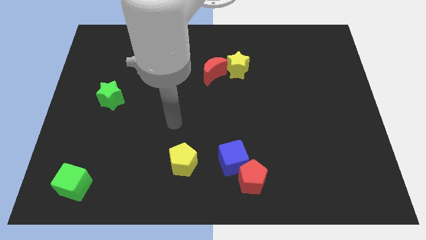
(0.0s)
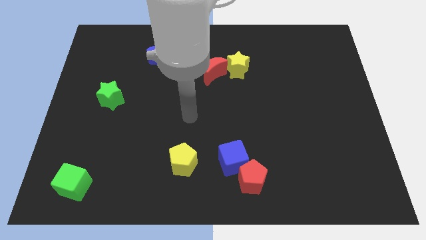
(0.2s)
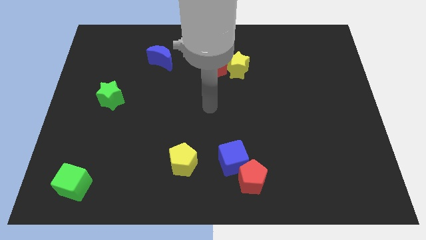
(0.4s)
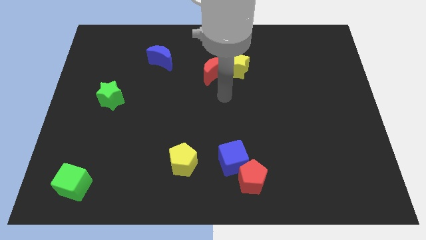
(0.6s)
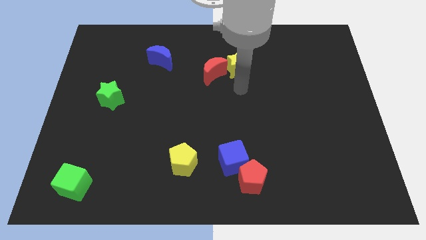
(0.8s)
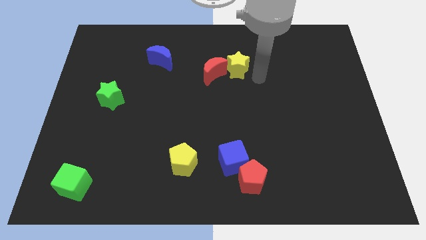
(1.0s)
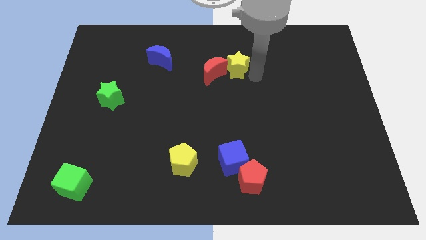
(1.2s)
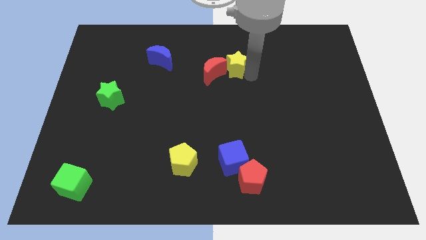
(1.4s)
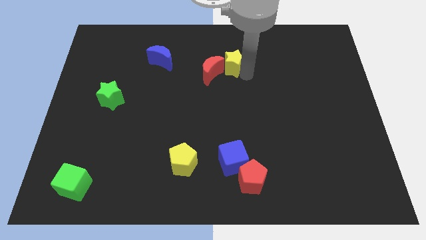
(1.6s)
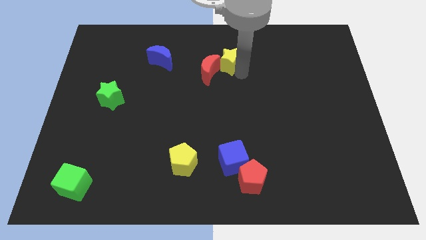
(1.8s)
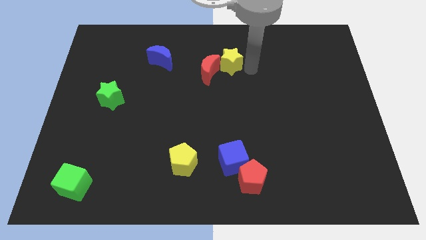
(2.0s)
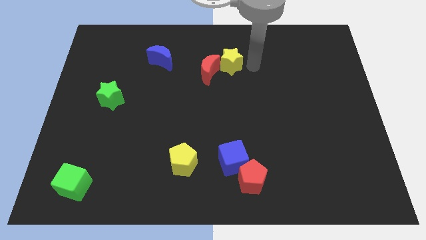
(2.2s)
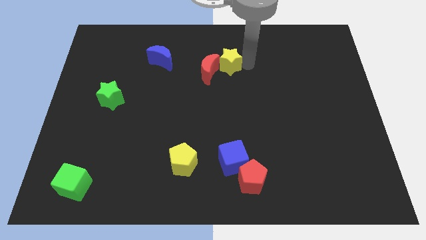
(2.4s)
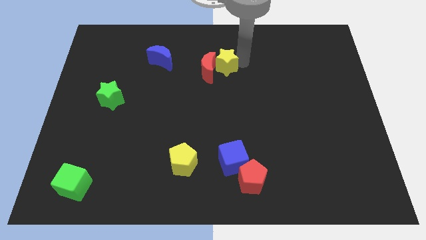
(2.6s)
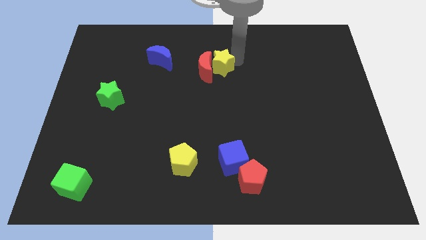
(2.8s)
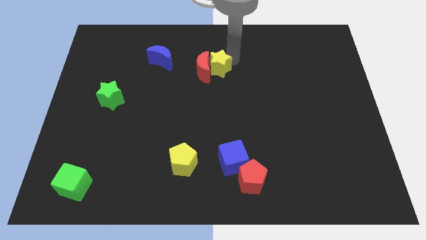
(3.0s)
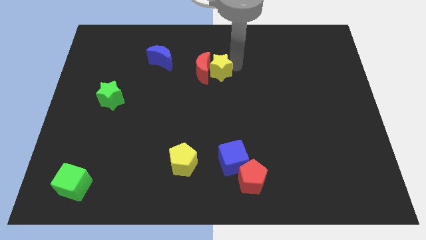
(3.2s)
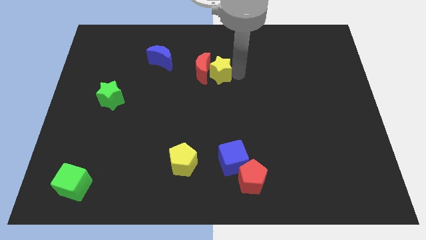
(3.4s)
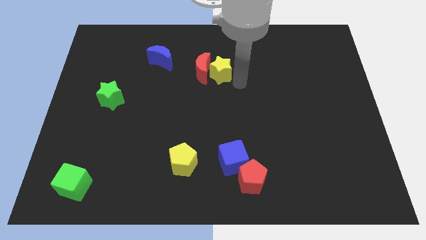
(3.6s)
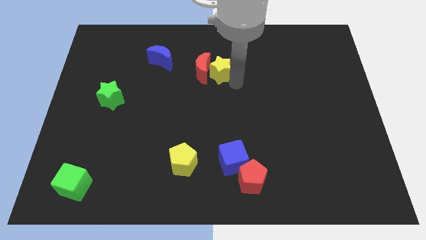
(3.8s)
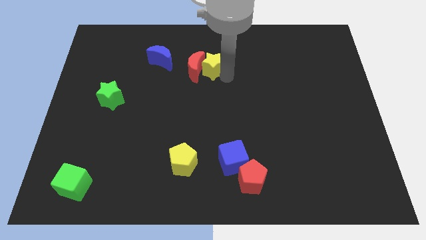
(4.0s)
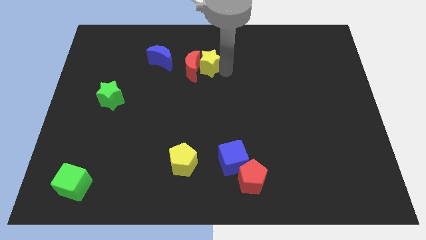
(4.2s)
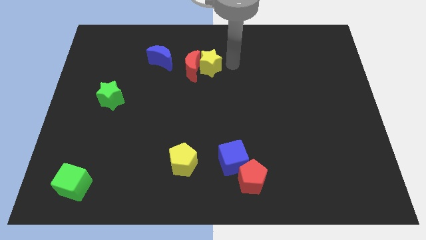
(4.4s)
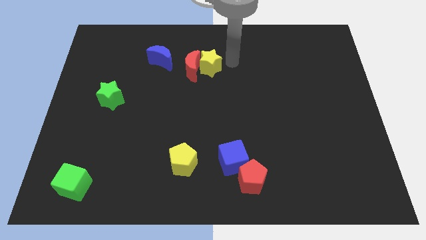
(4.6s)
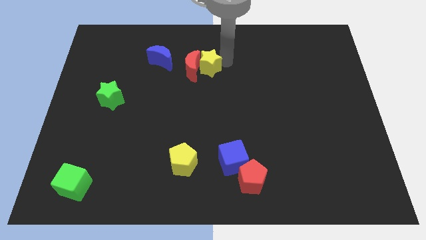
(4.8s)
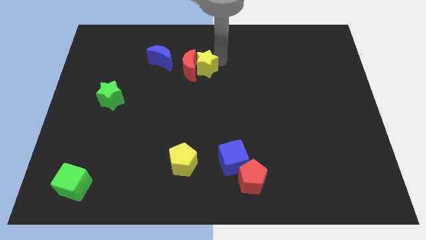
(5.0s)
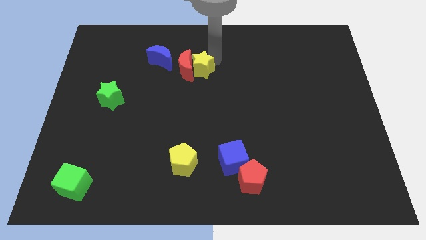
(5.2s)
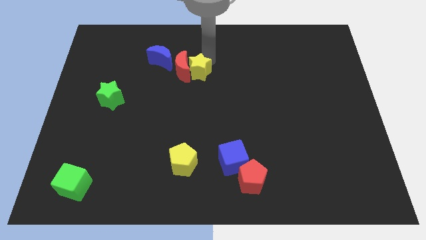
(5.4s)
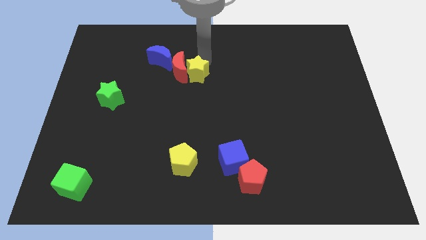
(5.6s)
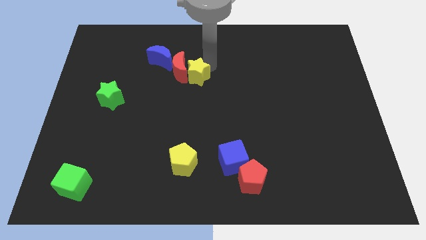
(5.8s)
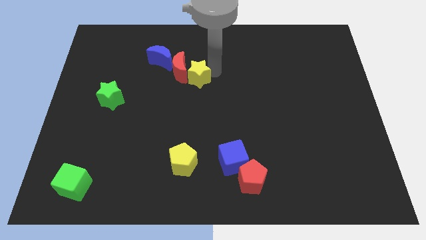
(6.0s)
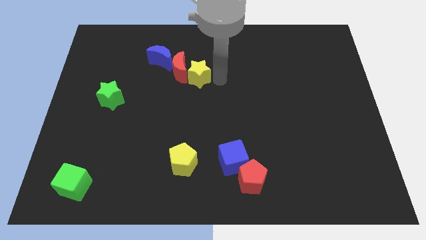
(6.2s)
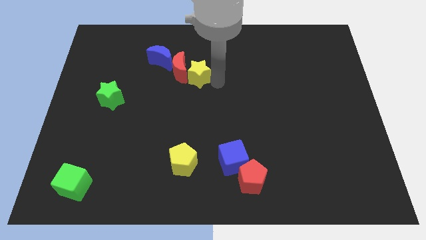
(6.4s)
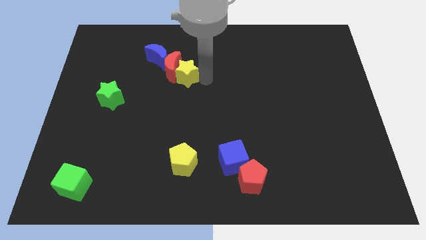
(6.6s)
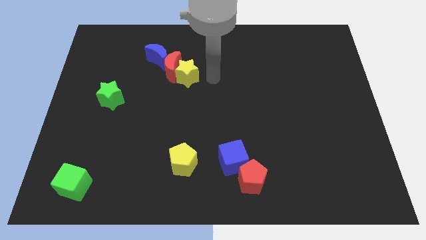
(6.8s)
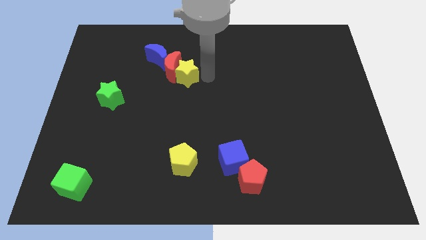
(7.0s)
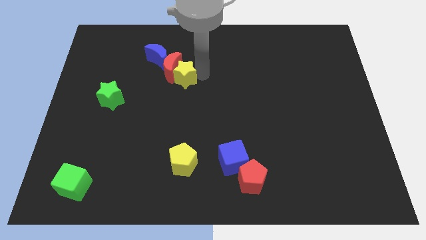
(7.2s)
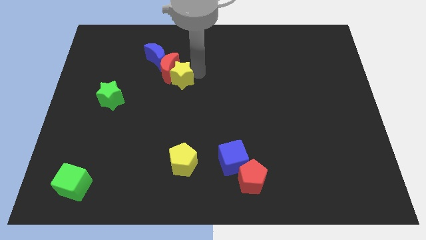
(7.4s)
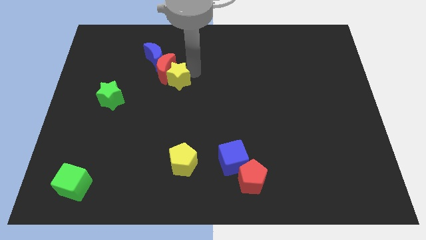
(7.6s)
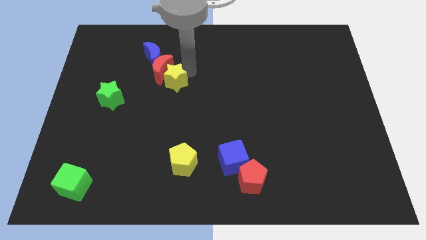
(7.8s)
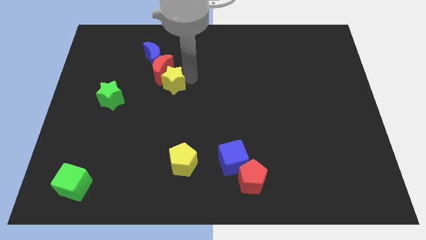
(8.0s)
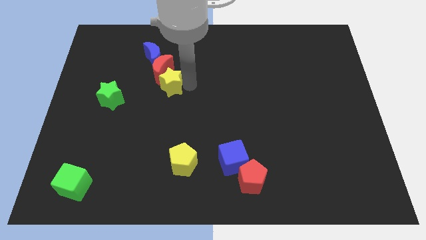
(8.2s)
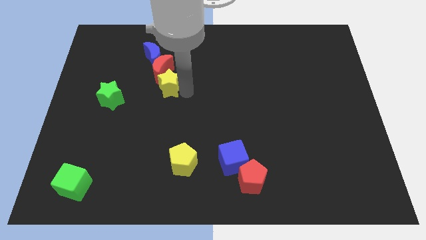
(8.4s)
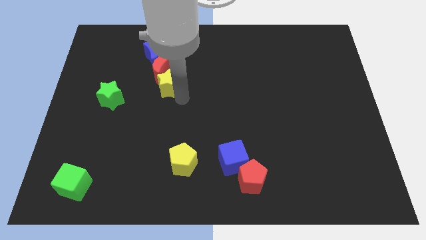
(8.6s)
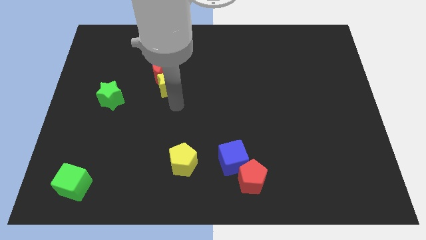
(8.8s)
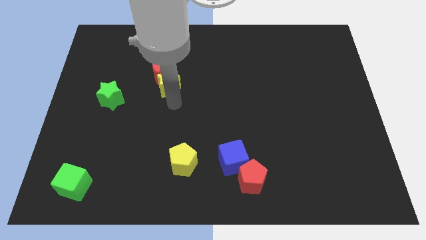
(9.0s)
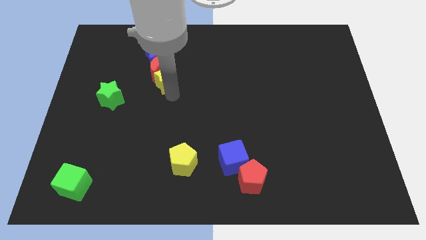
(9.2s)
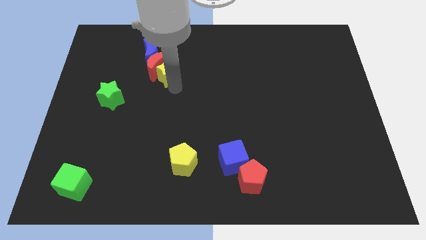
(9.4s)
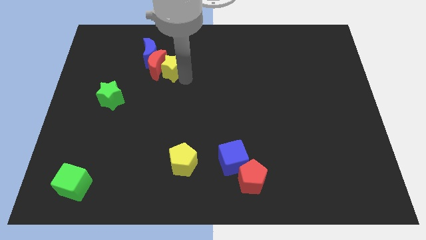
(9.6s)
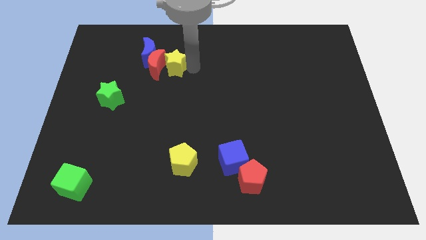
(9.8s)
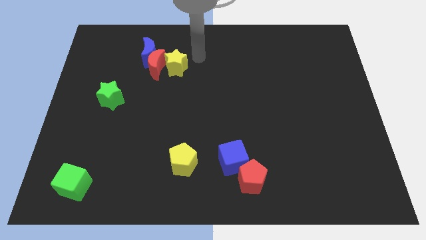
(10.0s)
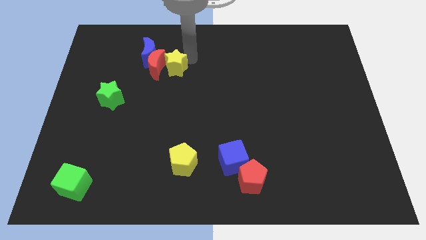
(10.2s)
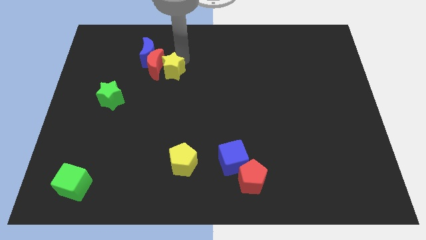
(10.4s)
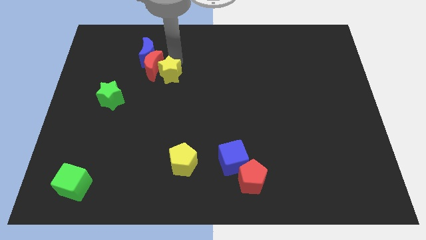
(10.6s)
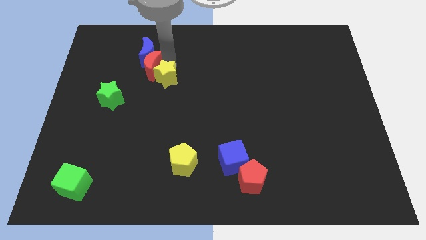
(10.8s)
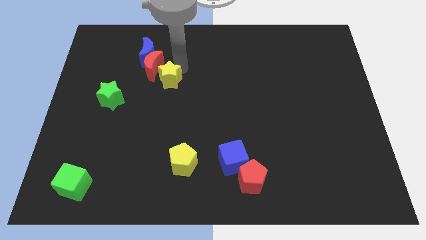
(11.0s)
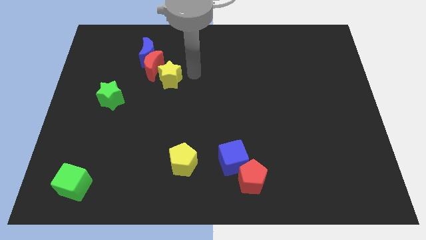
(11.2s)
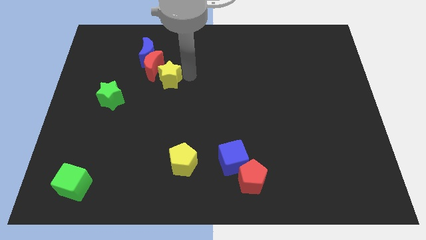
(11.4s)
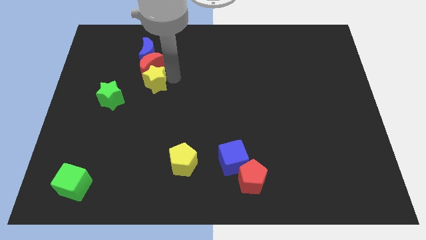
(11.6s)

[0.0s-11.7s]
put the yellow star to the top right of the green star

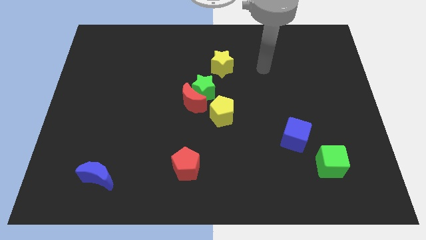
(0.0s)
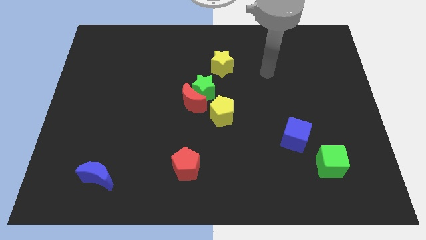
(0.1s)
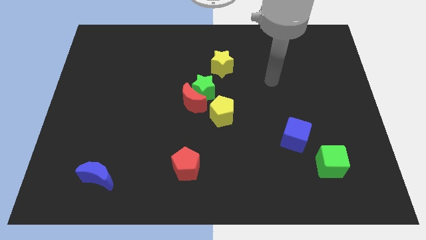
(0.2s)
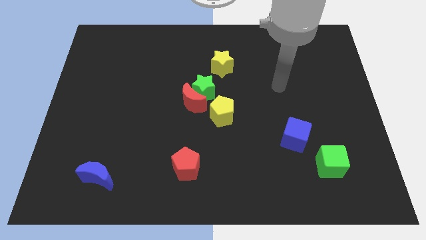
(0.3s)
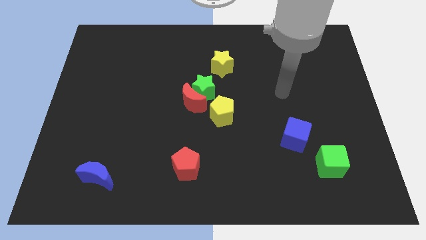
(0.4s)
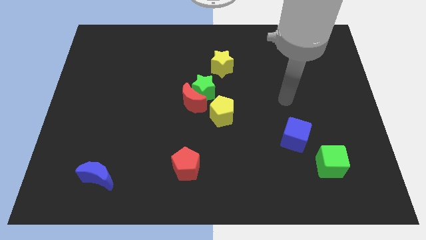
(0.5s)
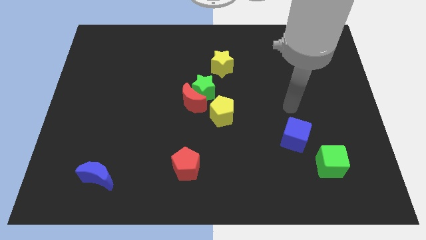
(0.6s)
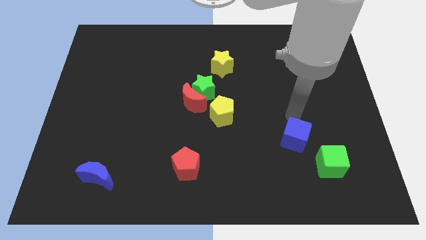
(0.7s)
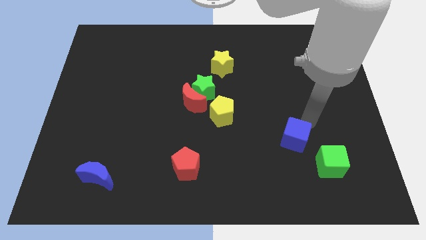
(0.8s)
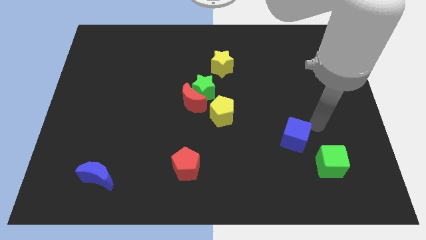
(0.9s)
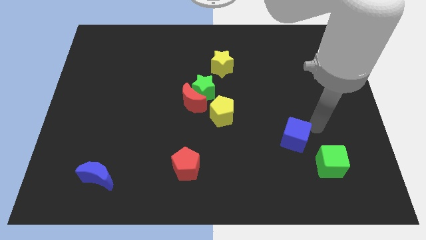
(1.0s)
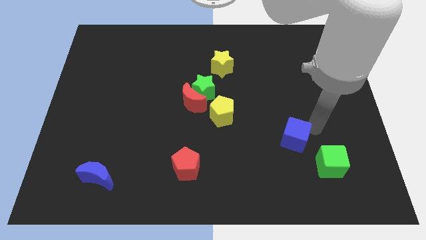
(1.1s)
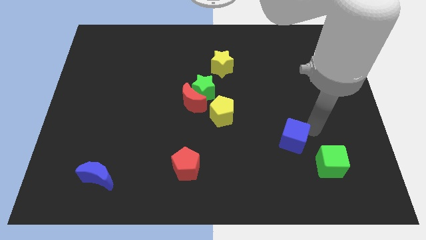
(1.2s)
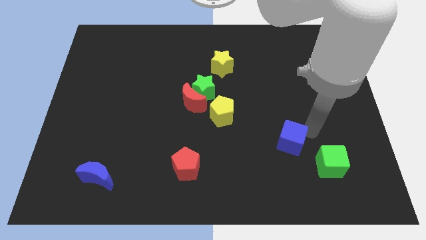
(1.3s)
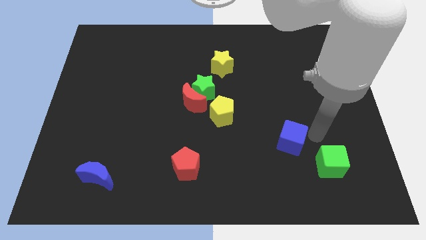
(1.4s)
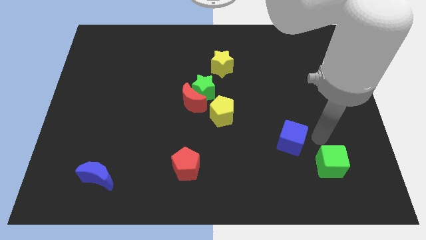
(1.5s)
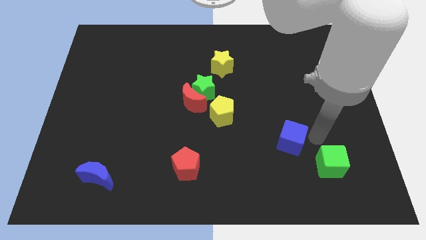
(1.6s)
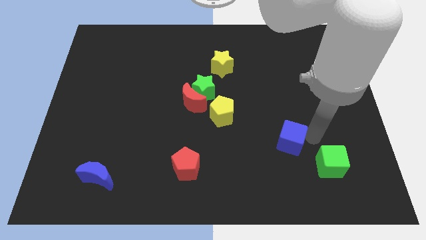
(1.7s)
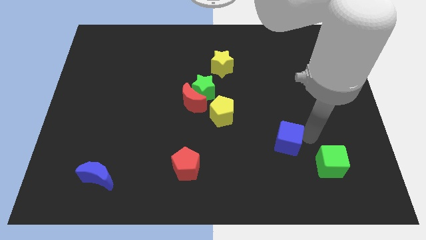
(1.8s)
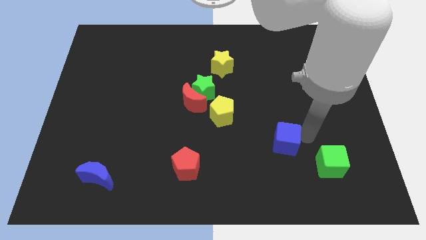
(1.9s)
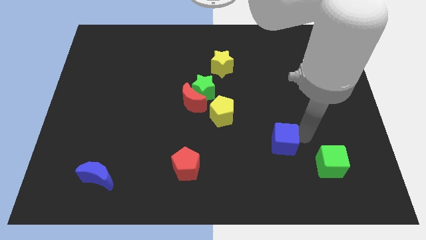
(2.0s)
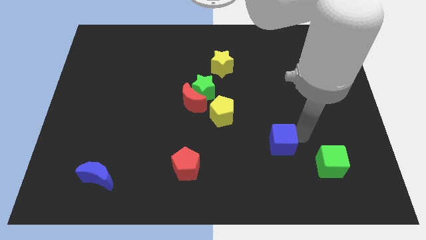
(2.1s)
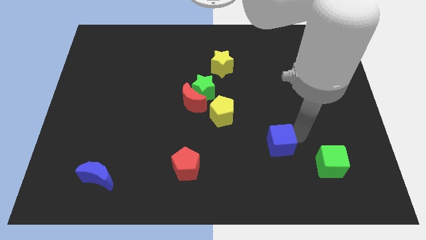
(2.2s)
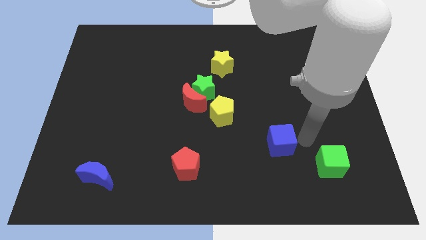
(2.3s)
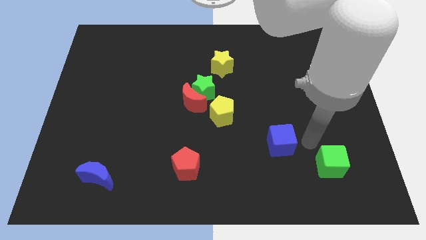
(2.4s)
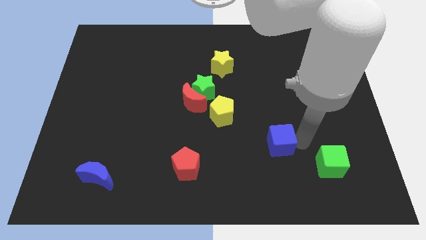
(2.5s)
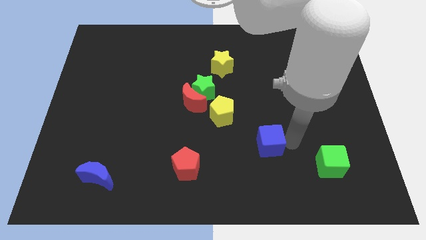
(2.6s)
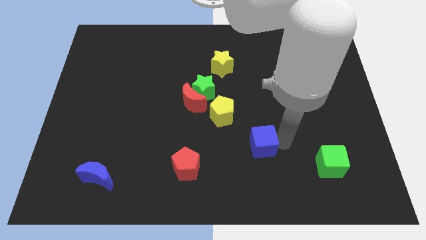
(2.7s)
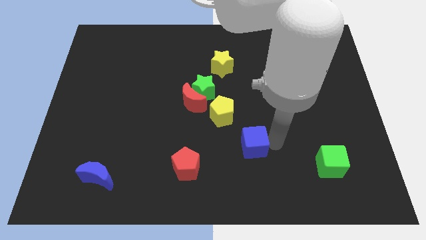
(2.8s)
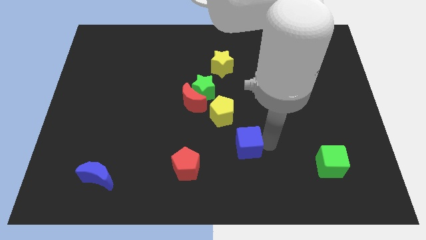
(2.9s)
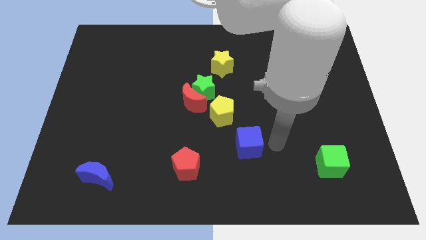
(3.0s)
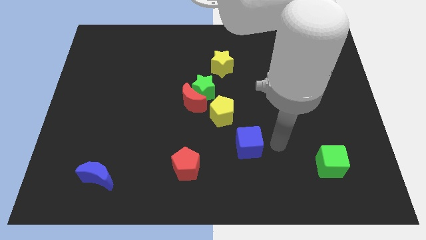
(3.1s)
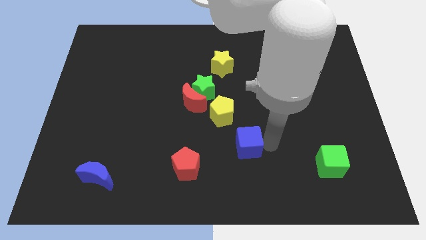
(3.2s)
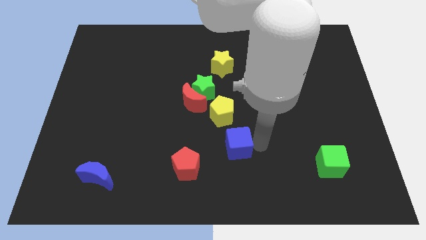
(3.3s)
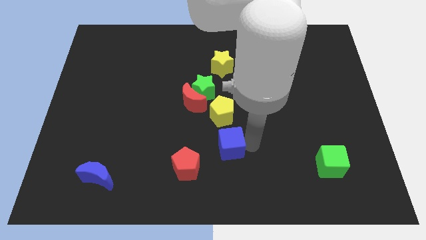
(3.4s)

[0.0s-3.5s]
put the blue cube diagonally up and to the right of the red pentagon
